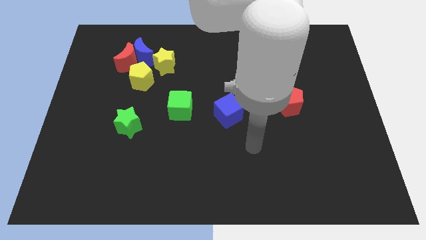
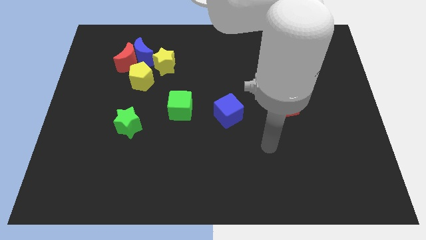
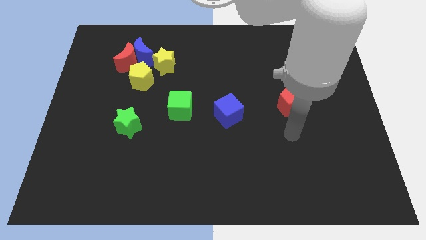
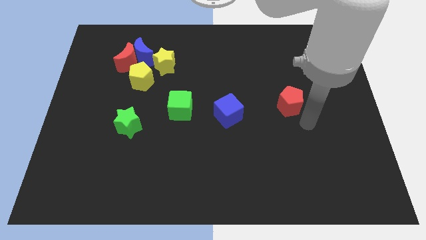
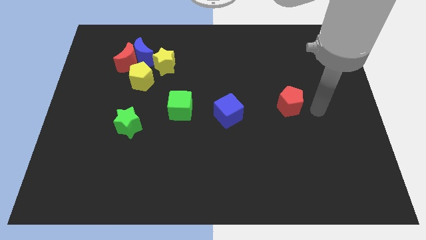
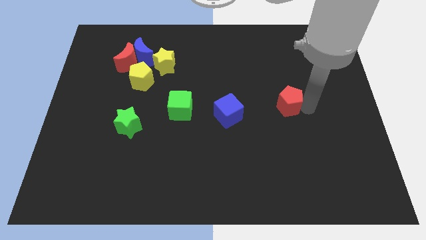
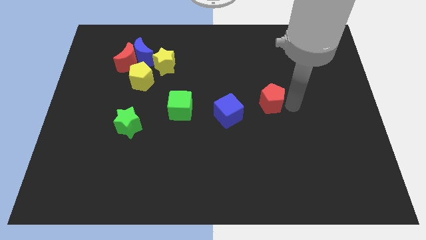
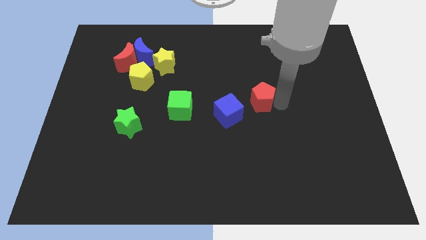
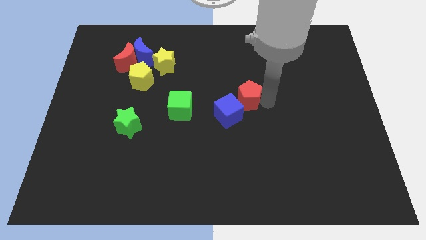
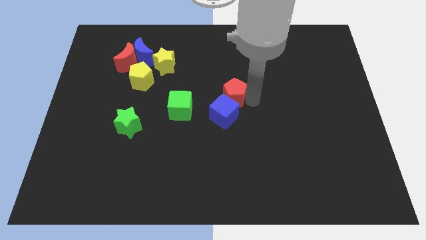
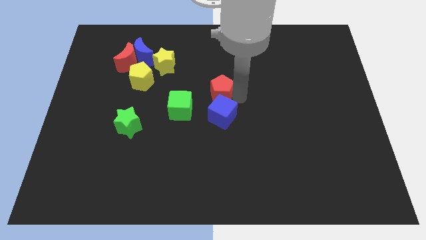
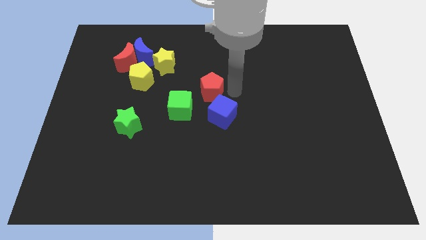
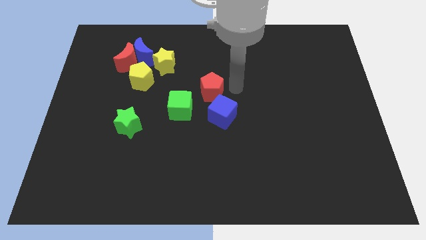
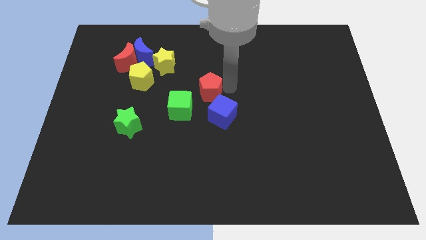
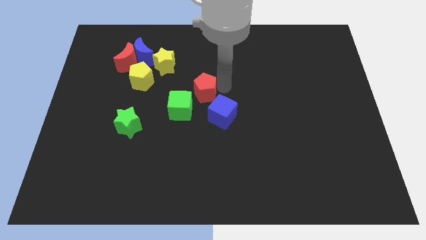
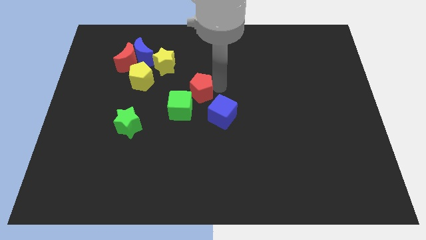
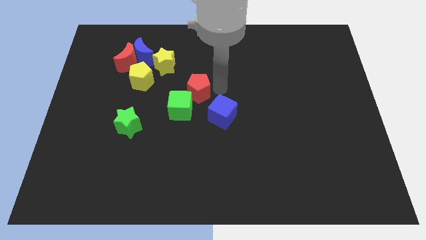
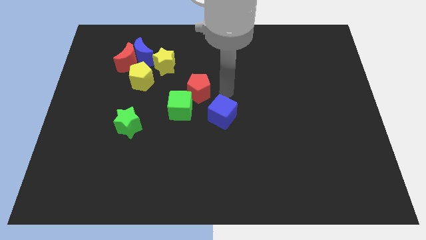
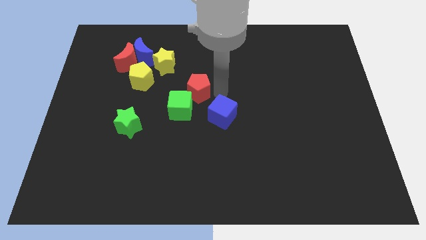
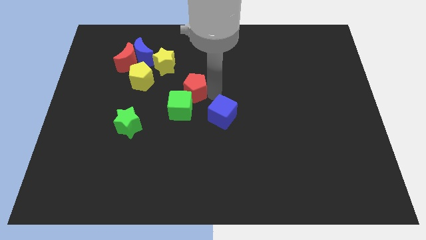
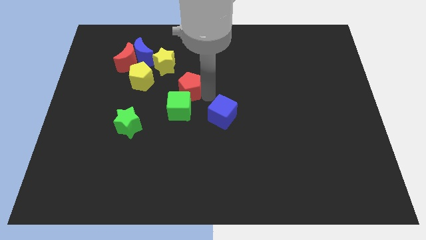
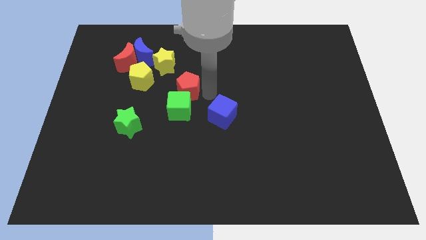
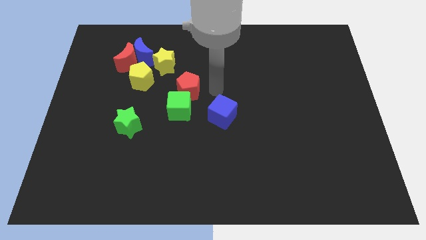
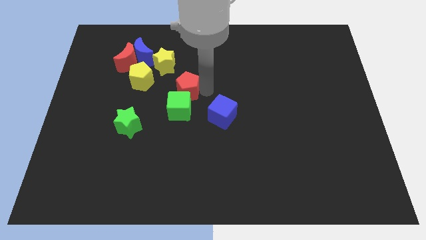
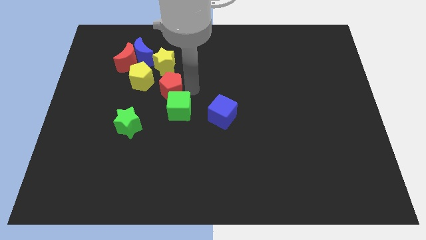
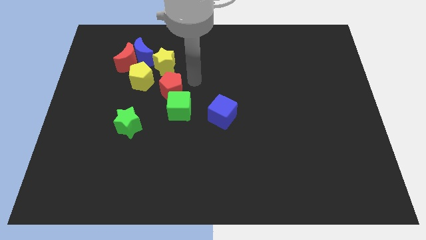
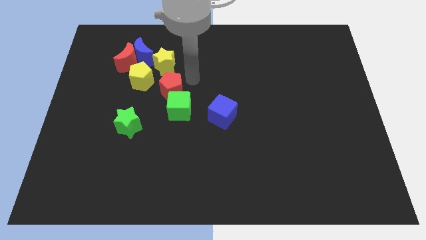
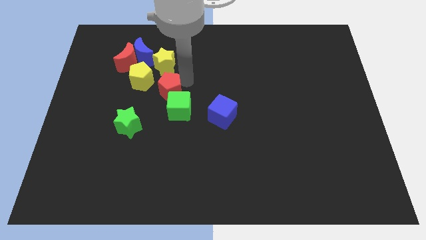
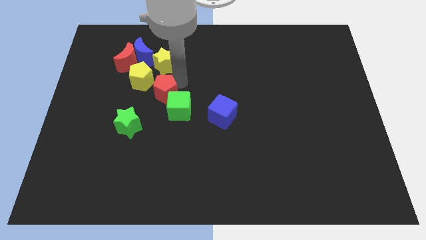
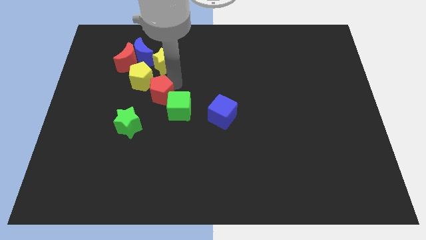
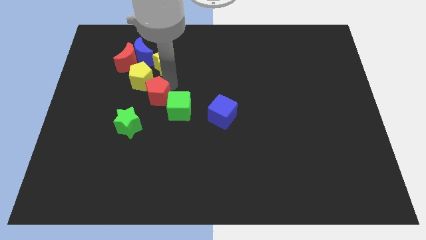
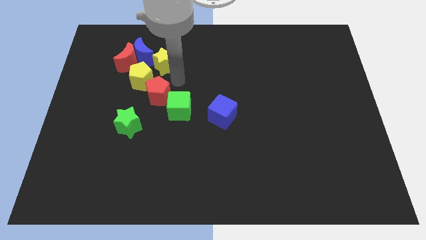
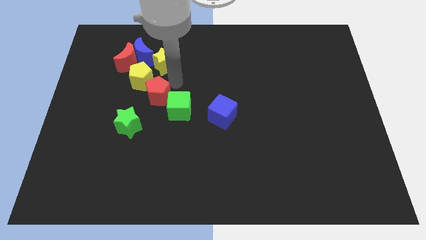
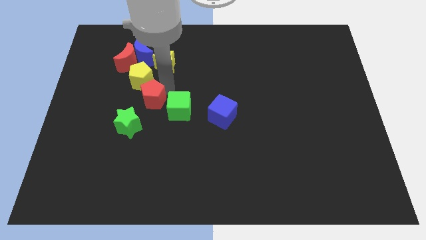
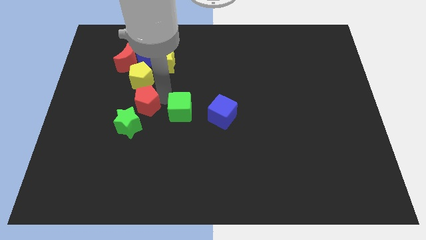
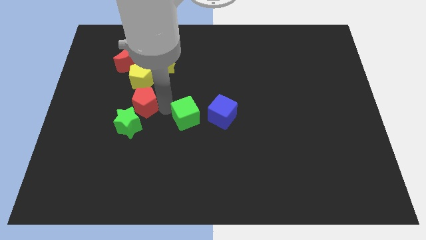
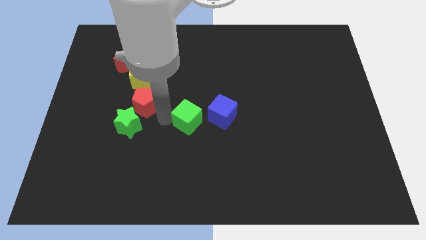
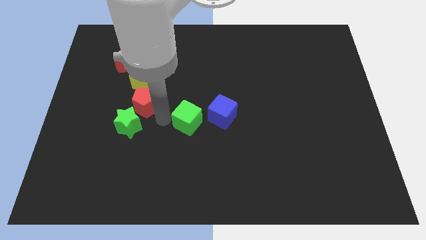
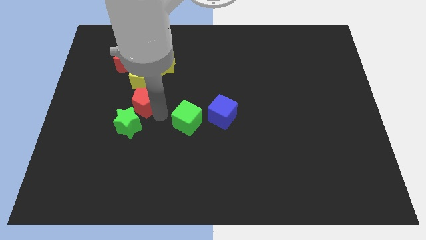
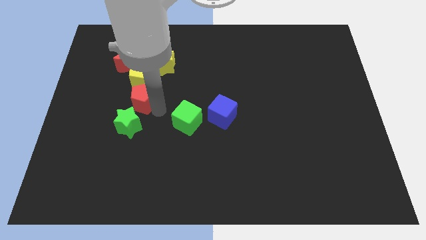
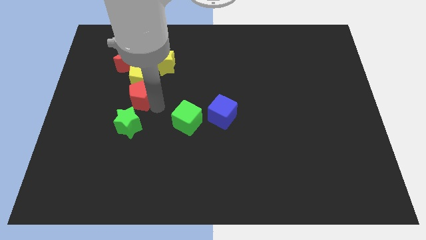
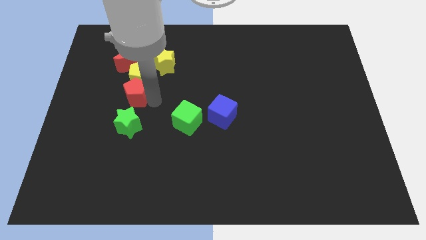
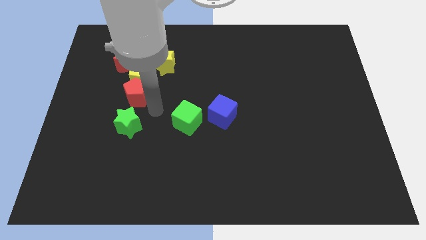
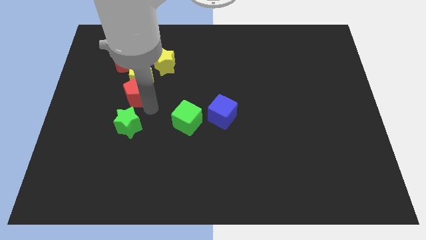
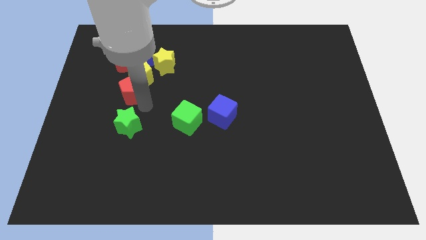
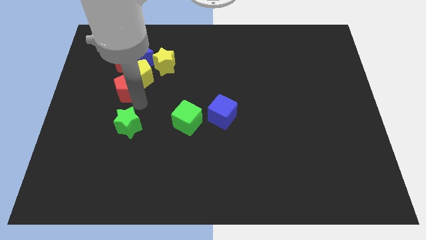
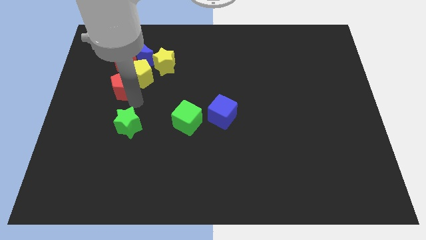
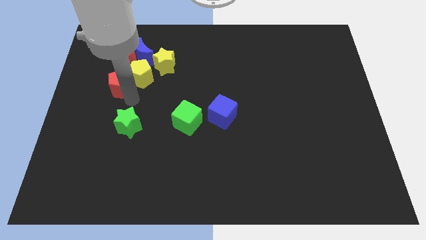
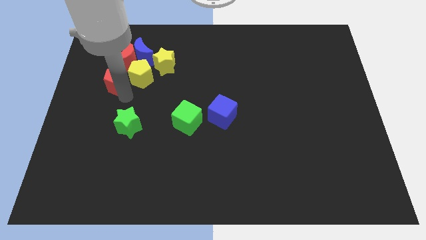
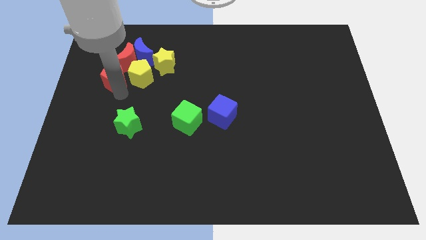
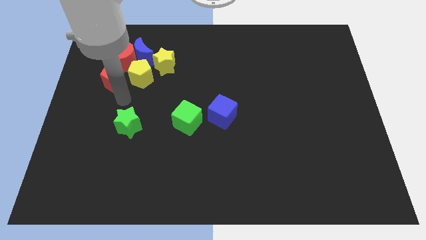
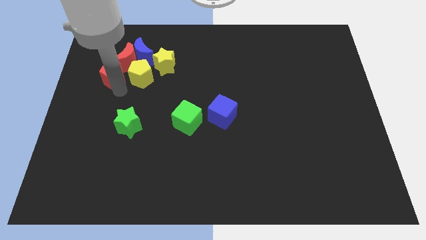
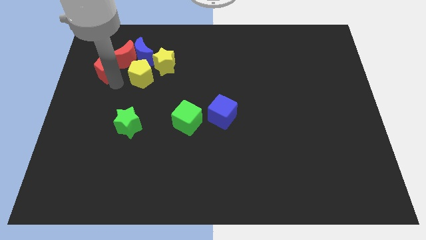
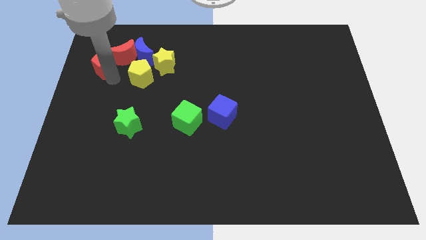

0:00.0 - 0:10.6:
put the red pentagon to the left of the blue moon

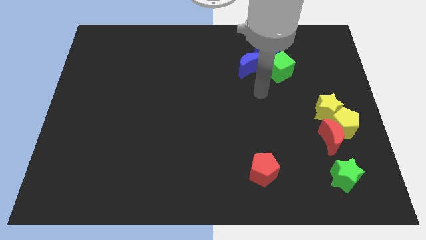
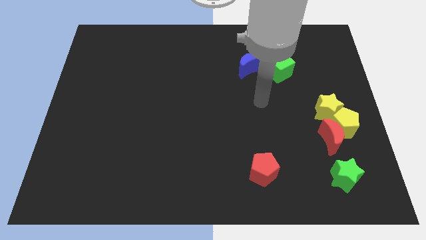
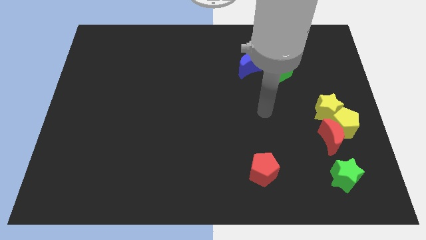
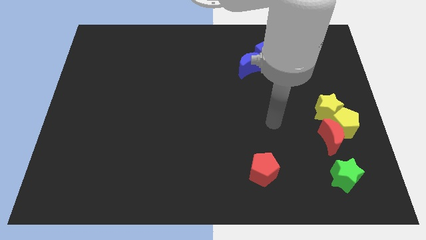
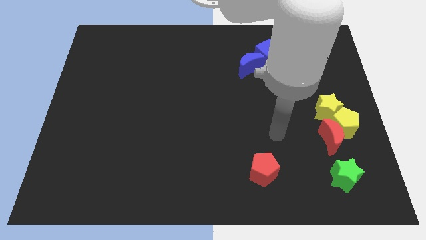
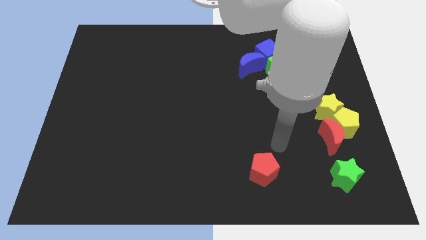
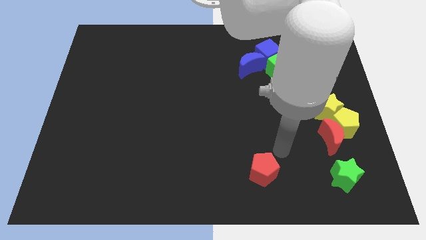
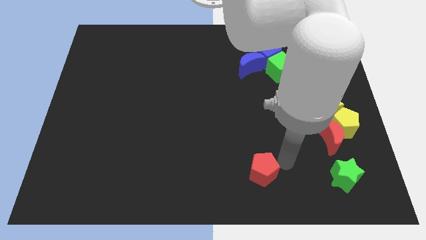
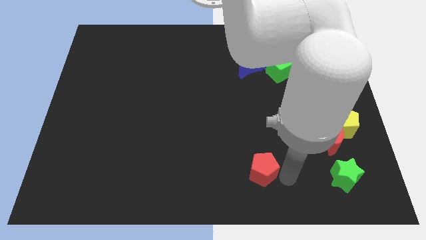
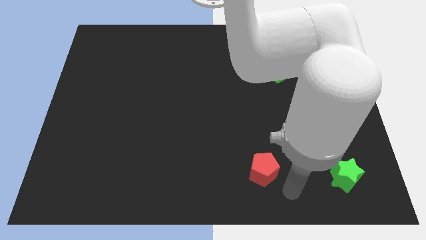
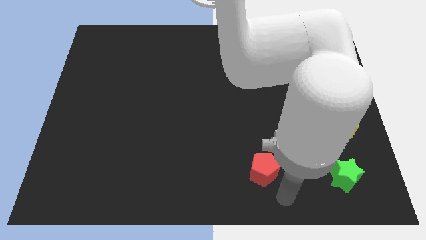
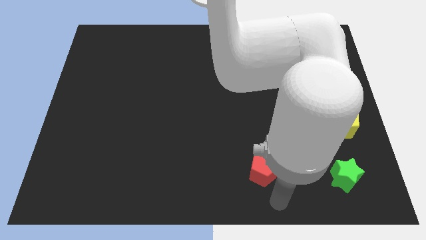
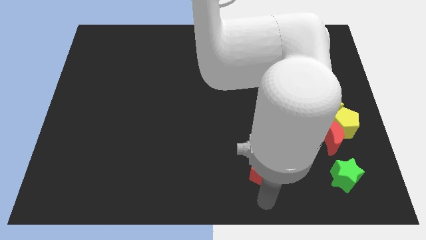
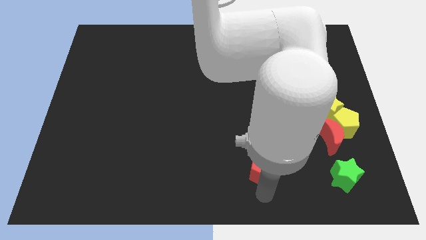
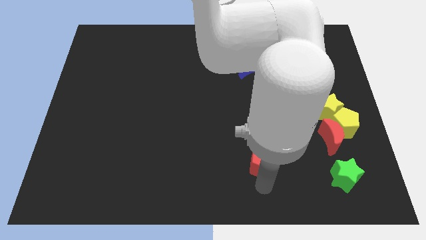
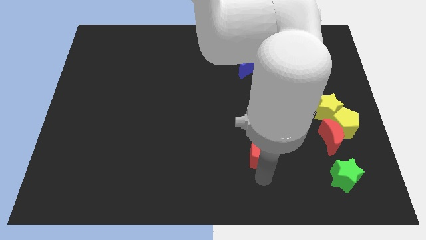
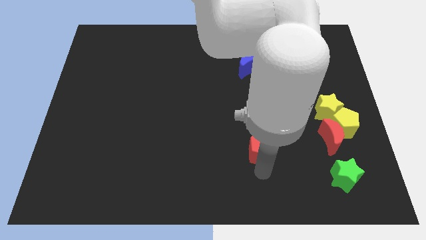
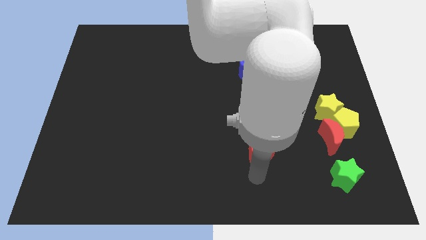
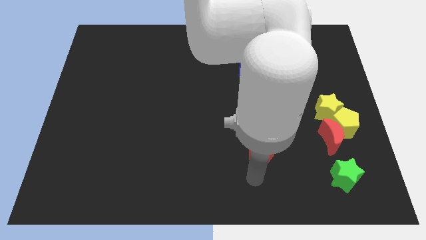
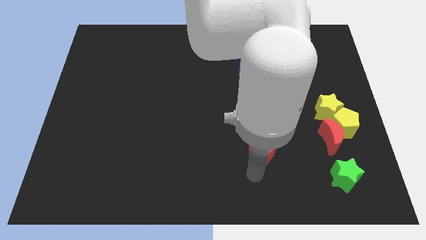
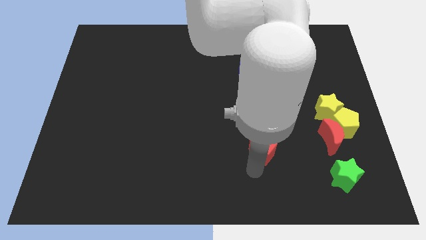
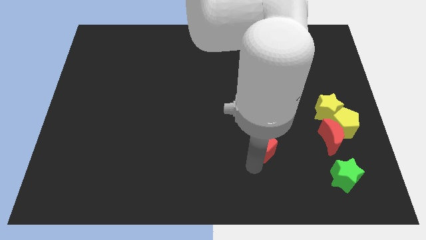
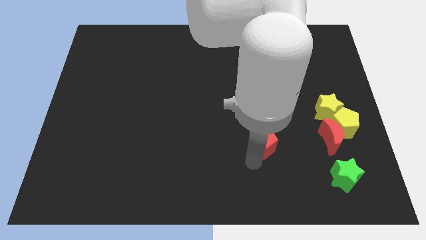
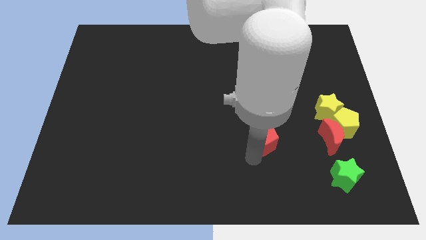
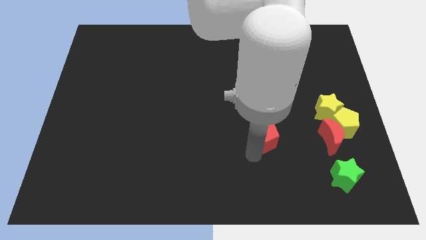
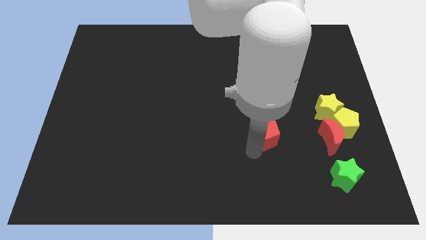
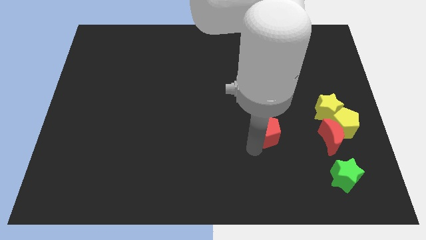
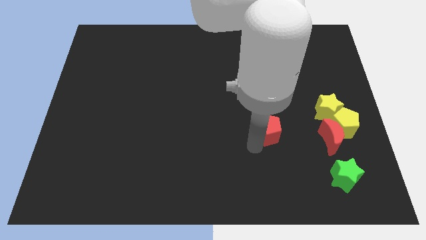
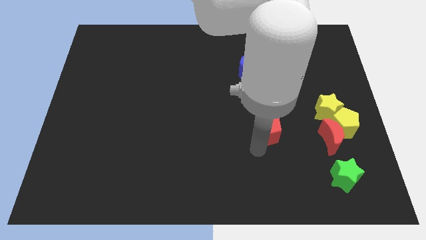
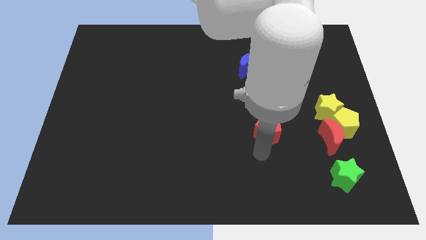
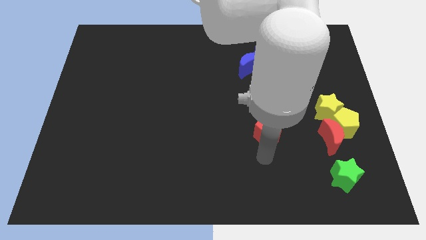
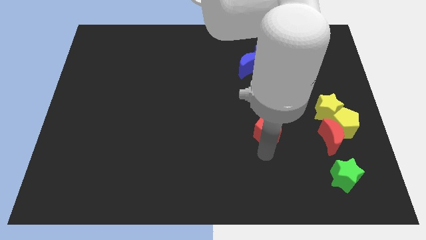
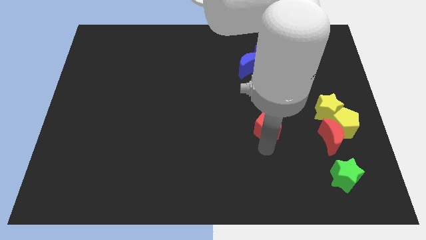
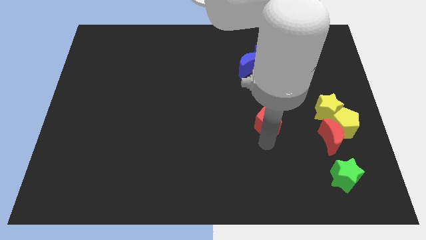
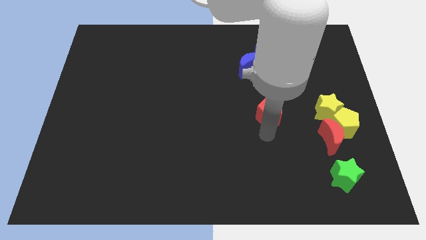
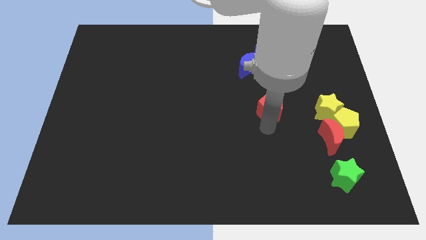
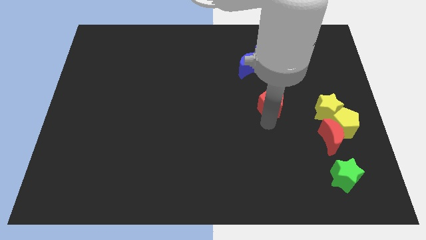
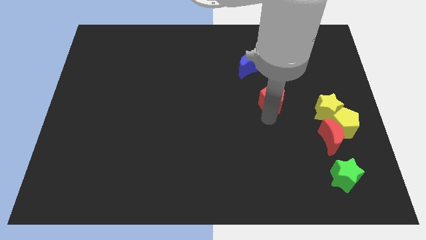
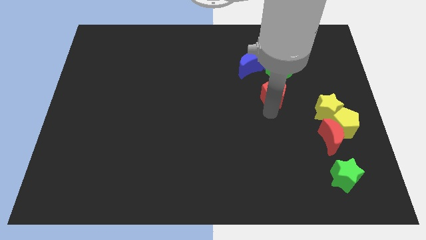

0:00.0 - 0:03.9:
push the red pentagon diagonally down and to the right of the blue moon
